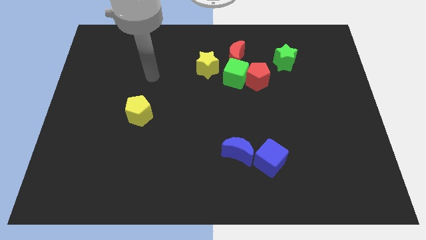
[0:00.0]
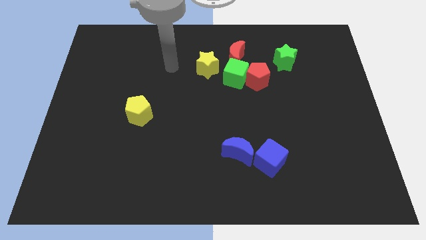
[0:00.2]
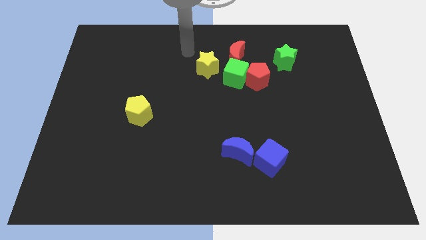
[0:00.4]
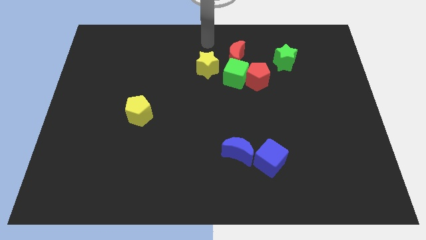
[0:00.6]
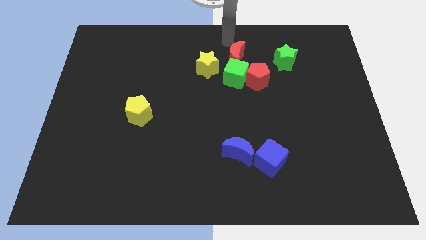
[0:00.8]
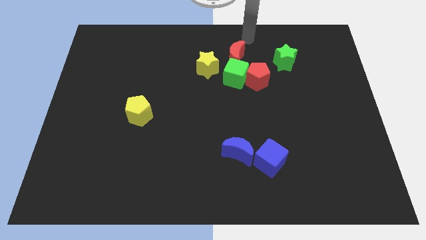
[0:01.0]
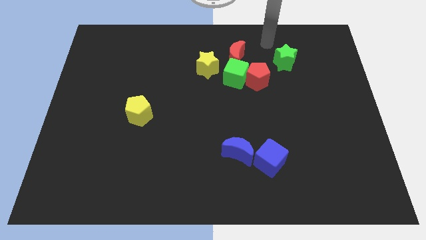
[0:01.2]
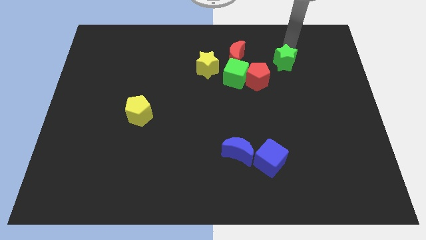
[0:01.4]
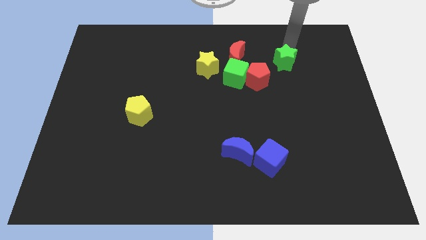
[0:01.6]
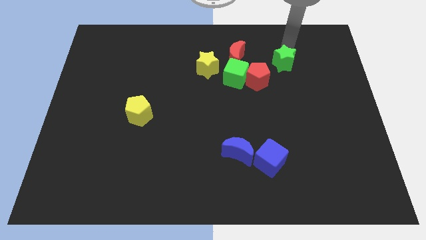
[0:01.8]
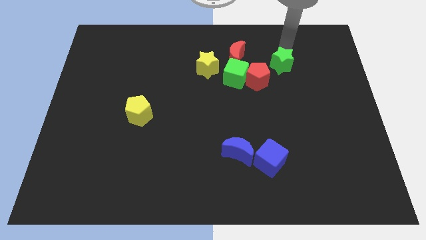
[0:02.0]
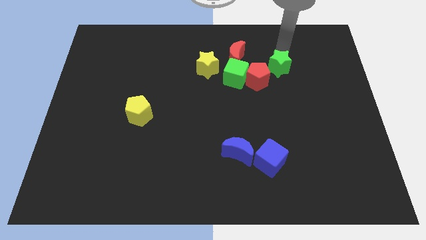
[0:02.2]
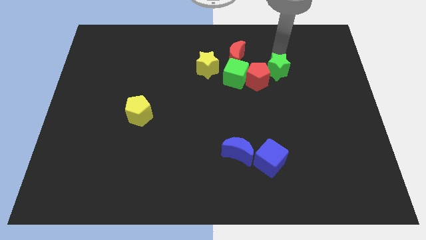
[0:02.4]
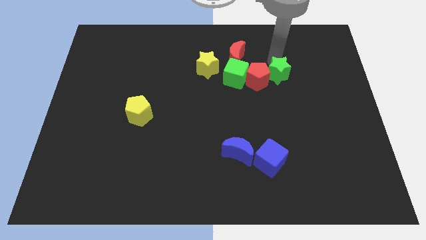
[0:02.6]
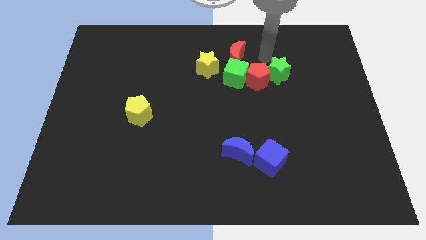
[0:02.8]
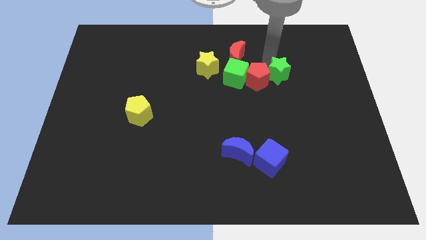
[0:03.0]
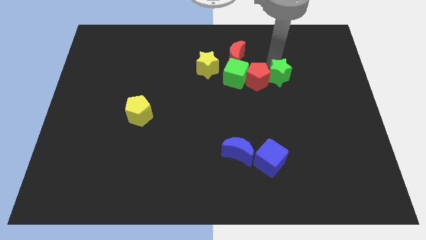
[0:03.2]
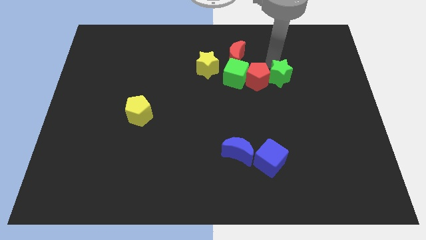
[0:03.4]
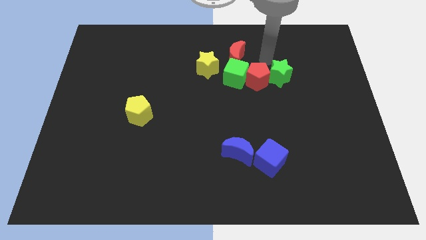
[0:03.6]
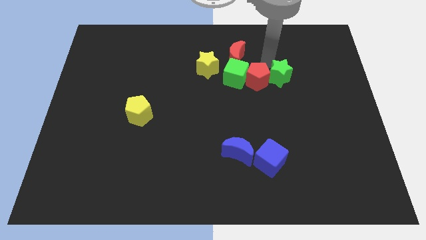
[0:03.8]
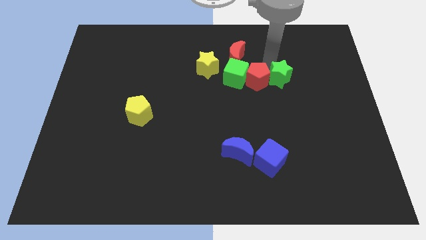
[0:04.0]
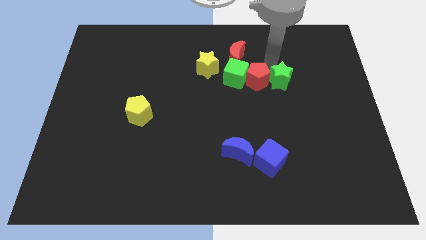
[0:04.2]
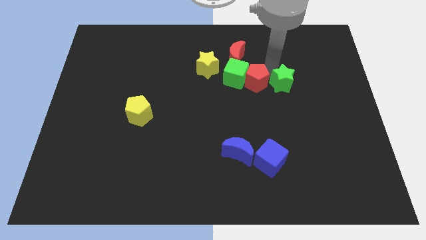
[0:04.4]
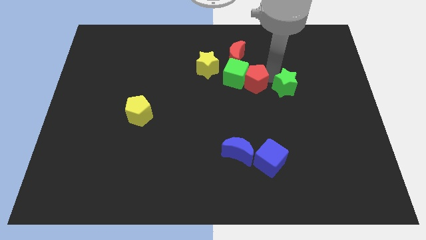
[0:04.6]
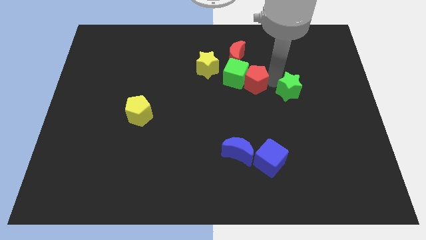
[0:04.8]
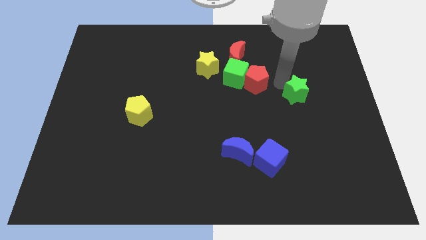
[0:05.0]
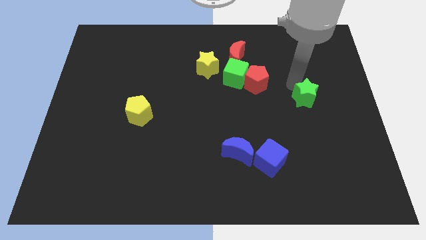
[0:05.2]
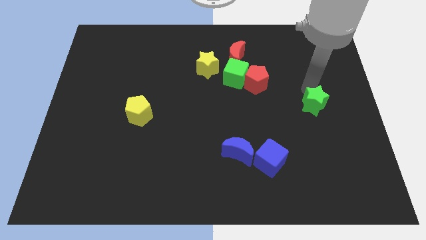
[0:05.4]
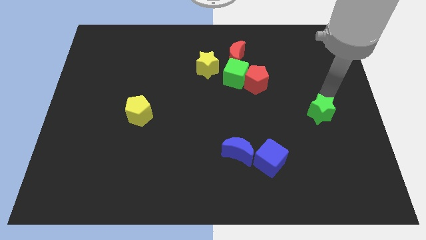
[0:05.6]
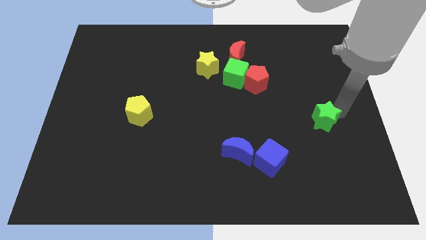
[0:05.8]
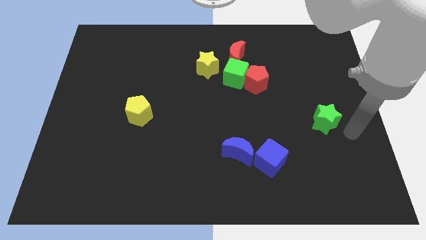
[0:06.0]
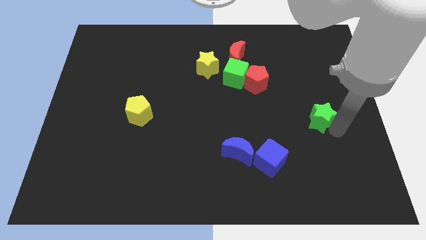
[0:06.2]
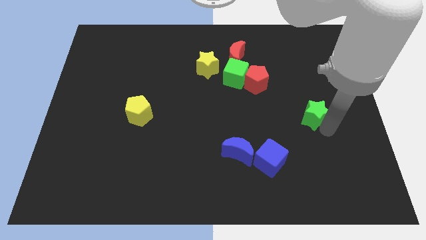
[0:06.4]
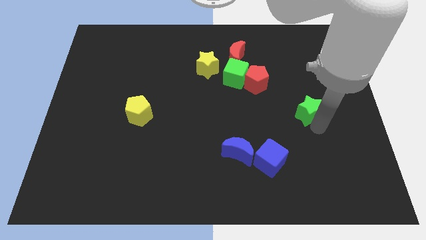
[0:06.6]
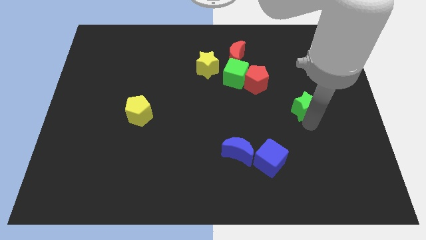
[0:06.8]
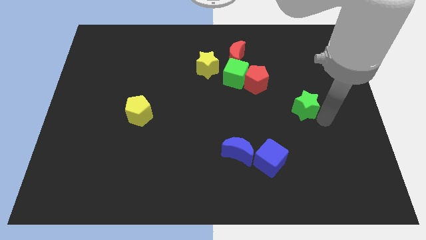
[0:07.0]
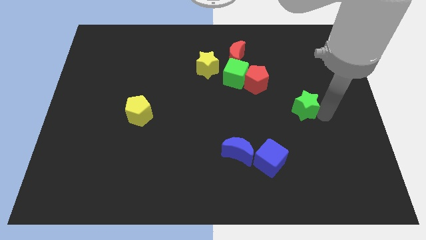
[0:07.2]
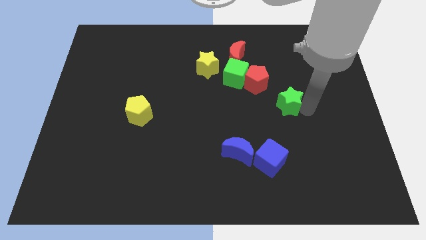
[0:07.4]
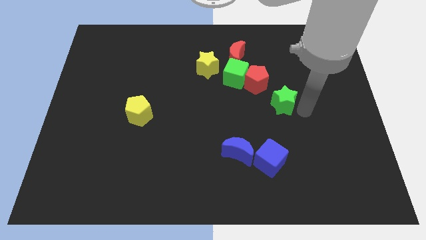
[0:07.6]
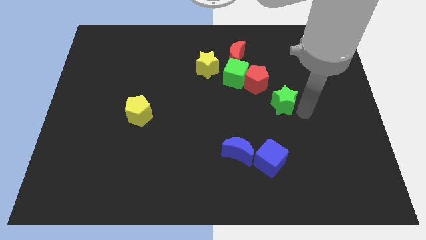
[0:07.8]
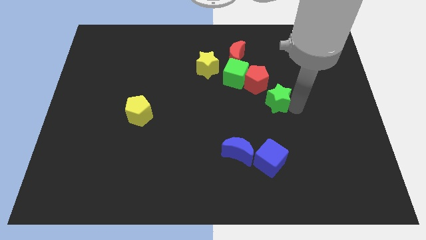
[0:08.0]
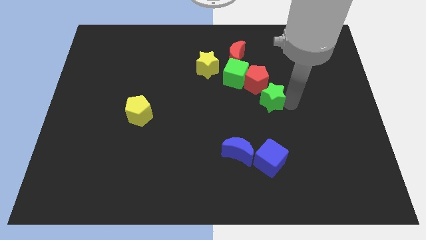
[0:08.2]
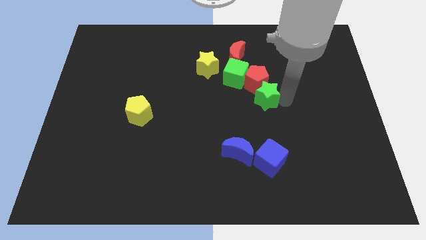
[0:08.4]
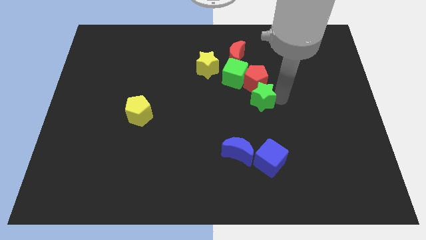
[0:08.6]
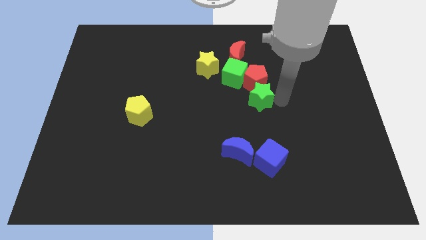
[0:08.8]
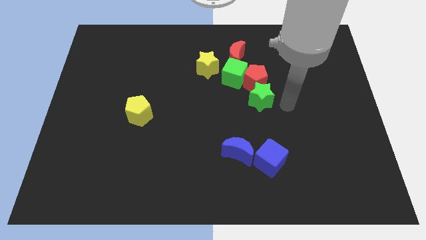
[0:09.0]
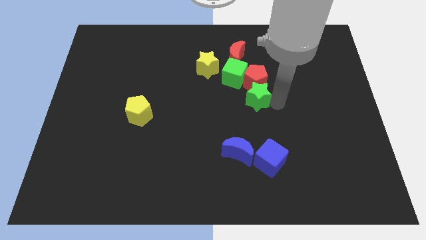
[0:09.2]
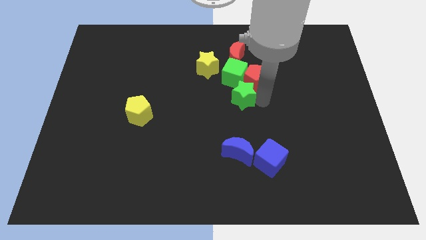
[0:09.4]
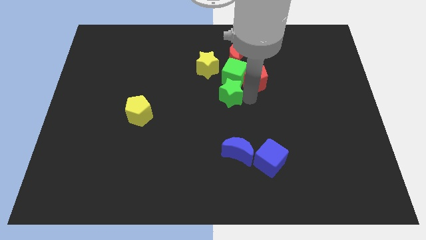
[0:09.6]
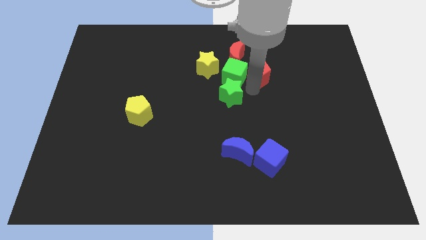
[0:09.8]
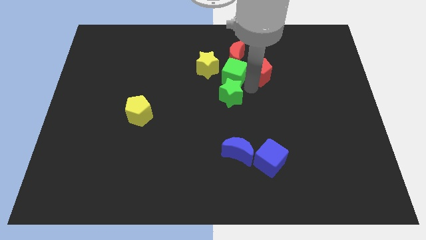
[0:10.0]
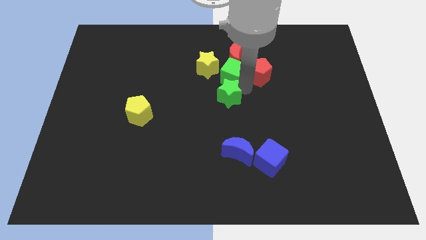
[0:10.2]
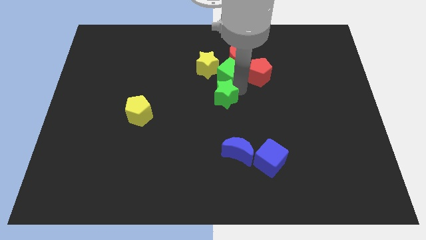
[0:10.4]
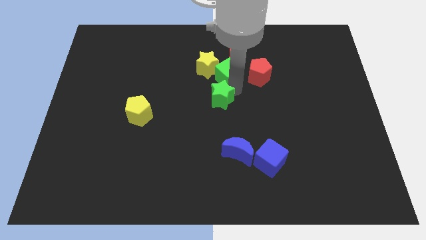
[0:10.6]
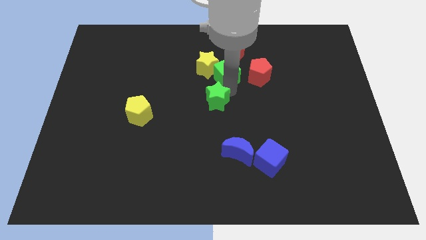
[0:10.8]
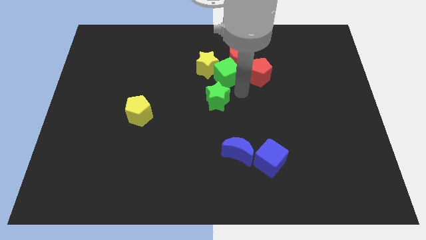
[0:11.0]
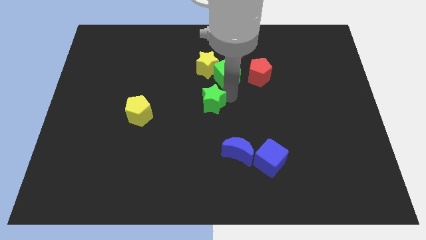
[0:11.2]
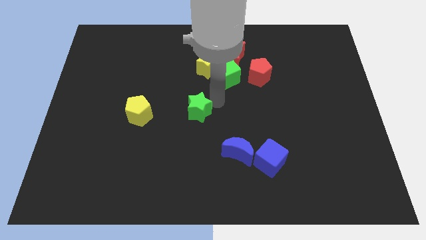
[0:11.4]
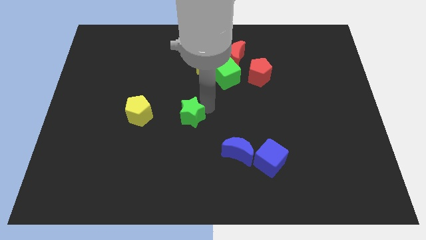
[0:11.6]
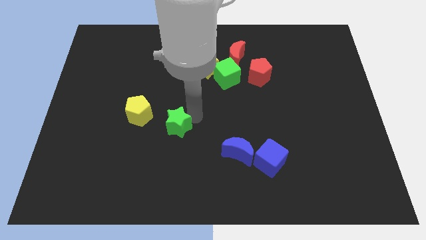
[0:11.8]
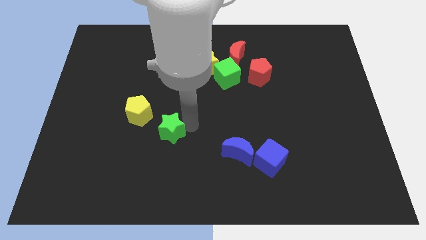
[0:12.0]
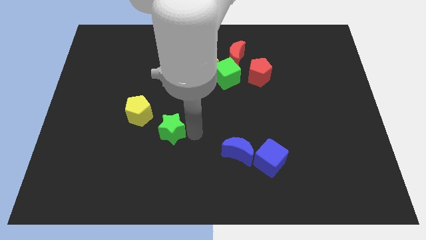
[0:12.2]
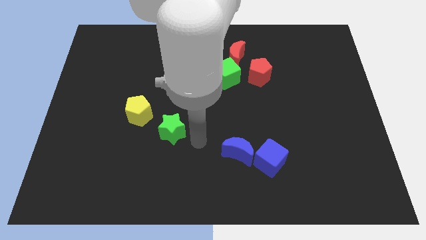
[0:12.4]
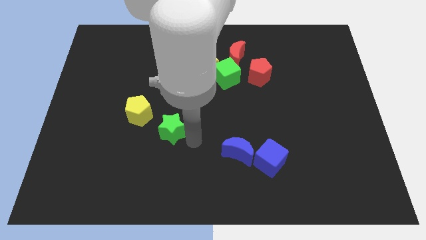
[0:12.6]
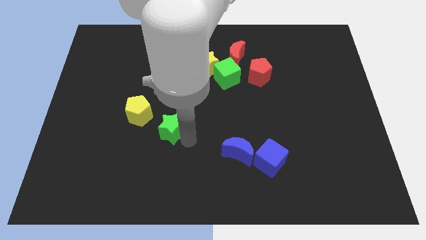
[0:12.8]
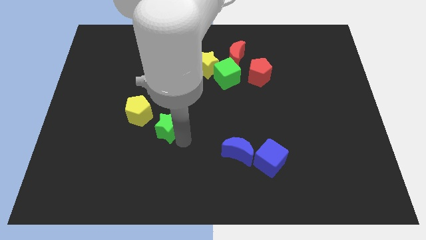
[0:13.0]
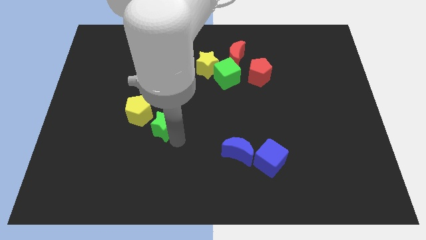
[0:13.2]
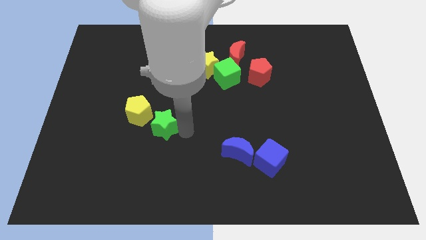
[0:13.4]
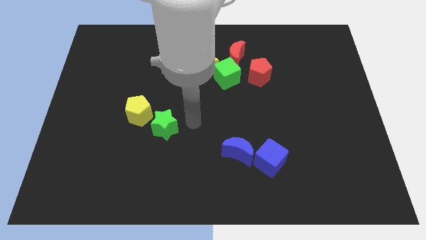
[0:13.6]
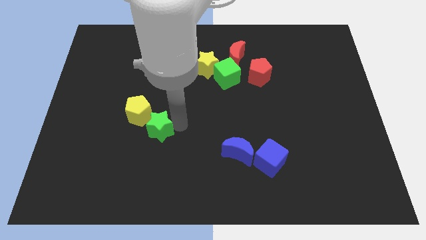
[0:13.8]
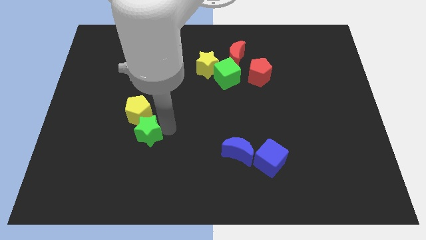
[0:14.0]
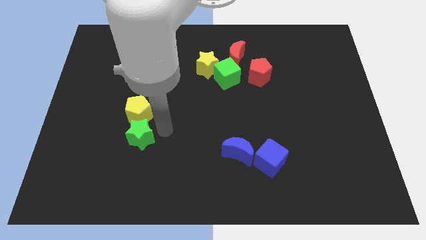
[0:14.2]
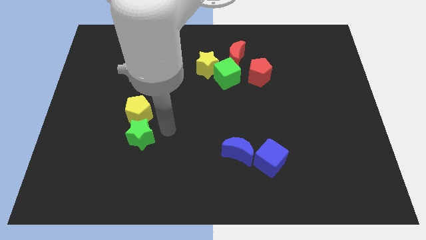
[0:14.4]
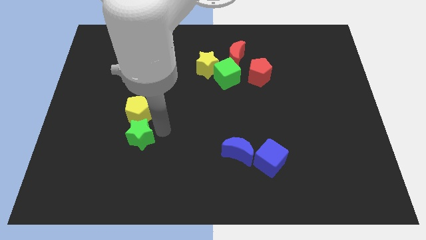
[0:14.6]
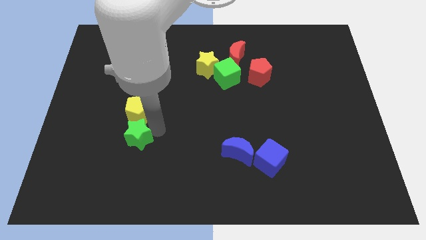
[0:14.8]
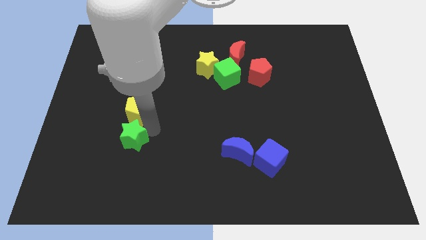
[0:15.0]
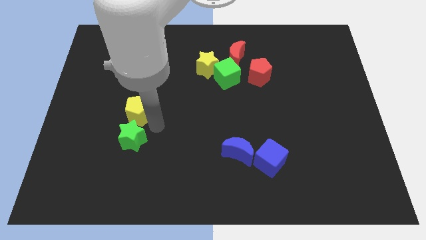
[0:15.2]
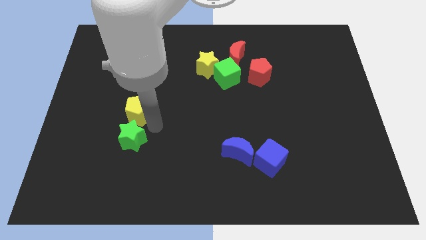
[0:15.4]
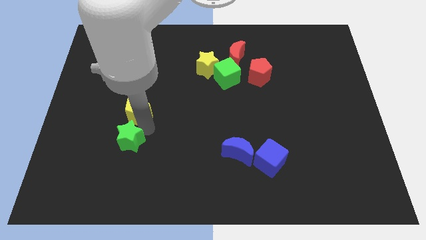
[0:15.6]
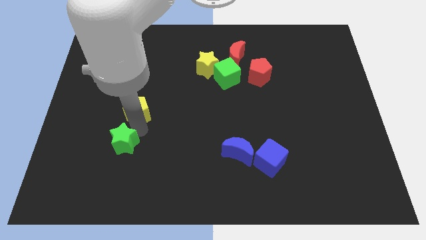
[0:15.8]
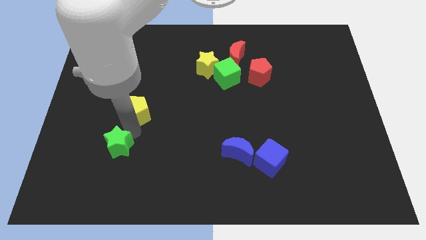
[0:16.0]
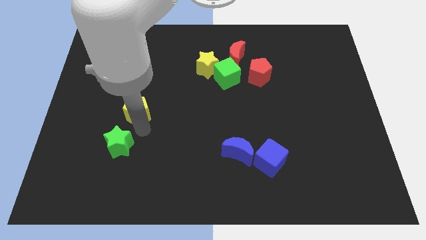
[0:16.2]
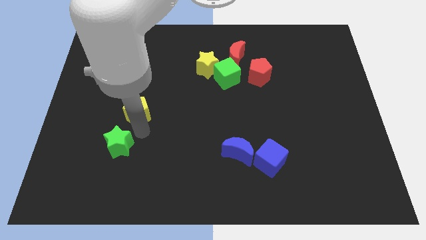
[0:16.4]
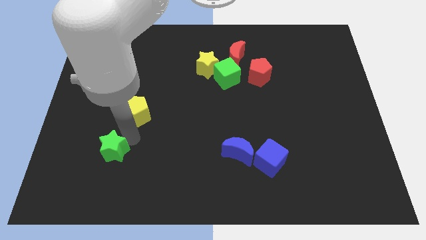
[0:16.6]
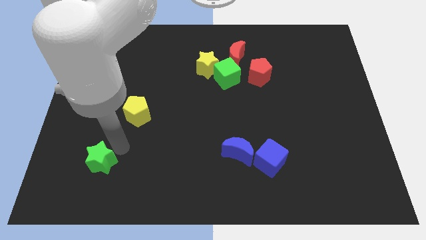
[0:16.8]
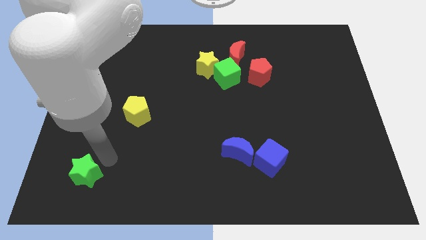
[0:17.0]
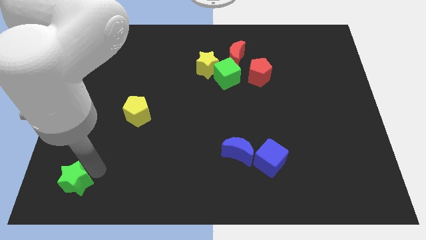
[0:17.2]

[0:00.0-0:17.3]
push the green star to the bottom left of the board
